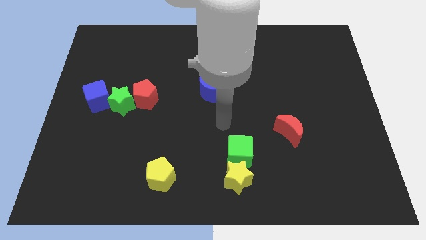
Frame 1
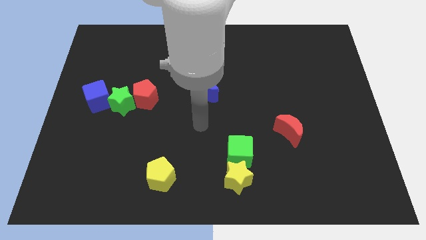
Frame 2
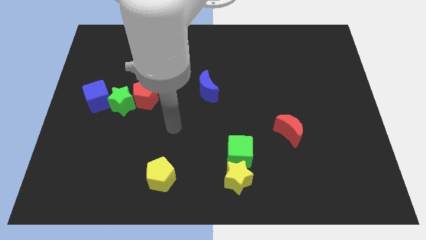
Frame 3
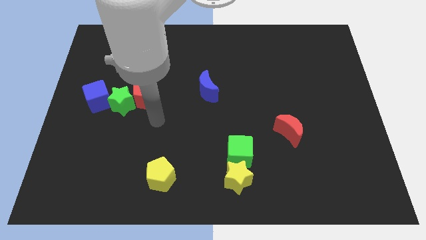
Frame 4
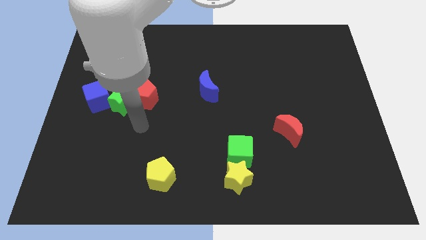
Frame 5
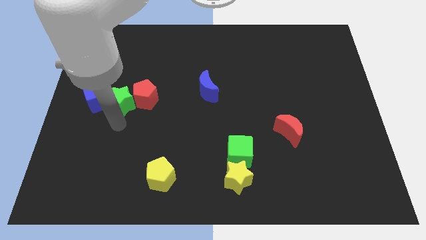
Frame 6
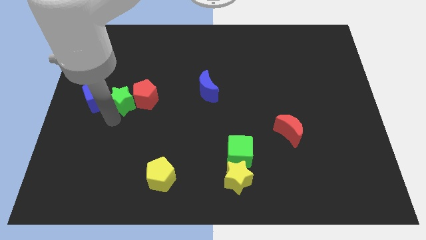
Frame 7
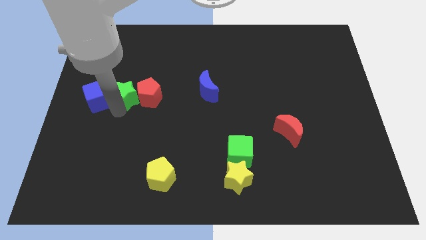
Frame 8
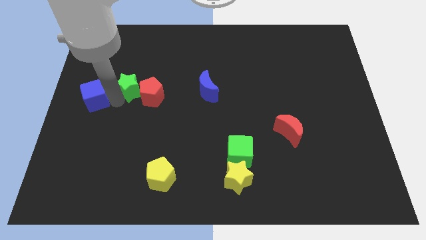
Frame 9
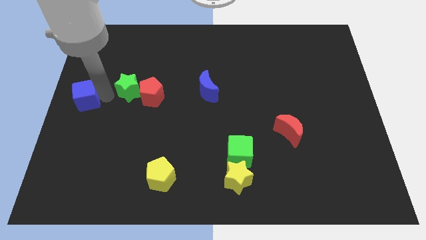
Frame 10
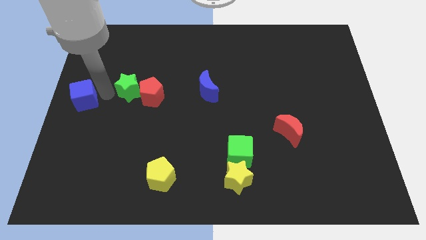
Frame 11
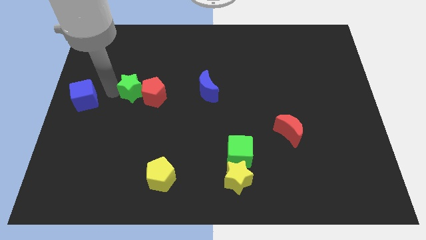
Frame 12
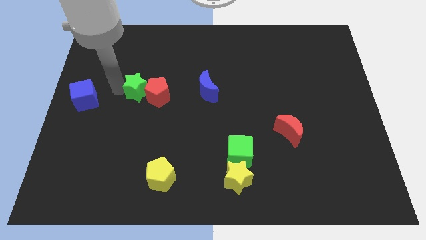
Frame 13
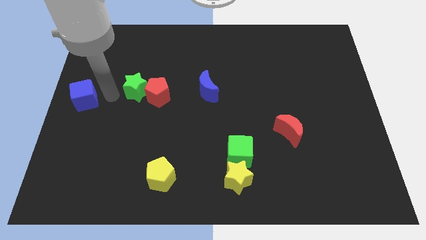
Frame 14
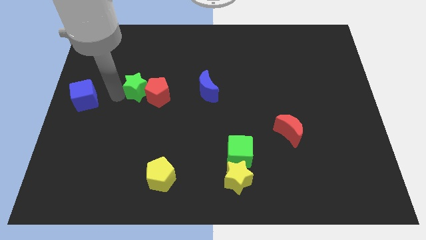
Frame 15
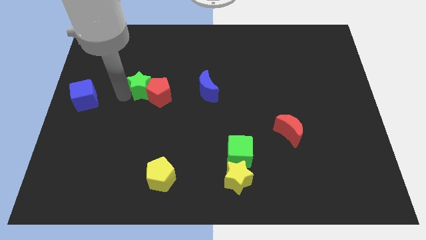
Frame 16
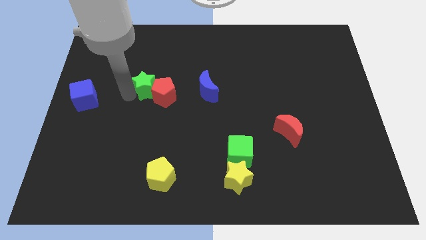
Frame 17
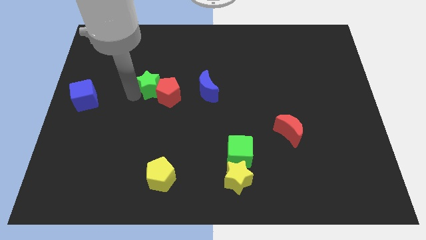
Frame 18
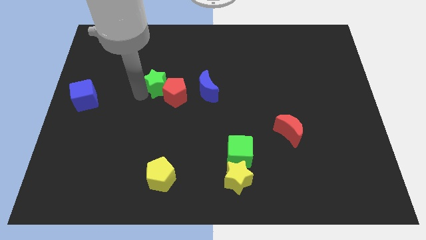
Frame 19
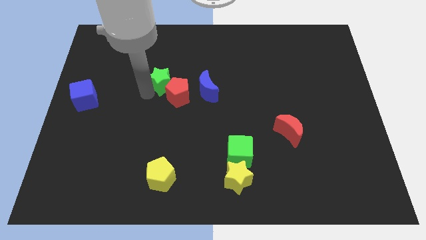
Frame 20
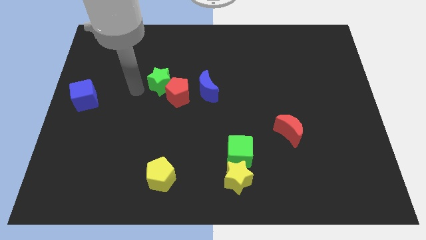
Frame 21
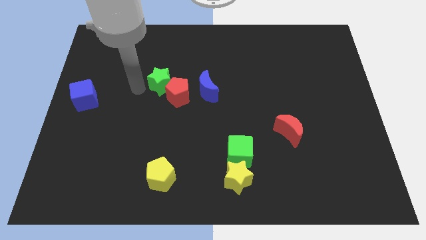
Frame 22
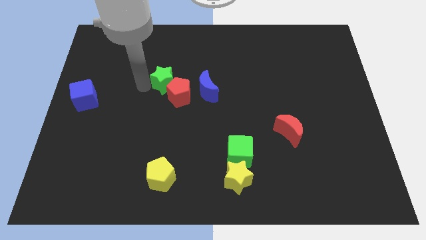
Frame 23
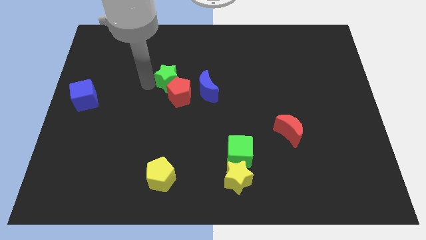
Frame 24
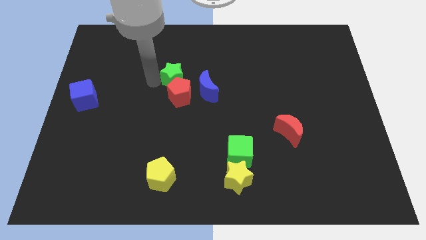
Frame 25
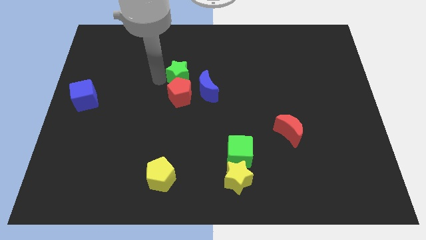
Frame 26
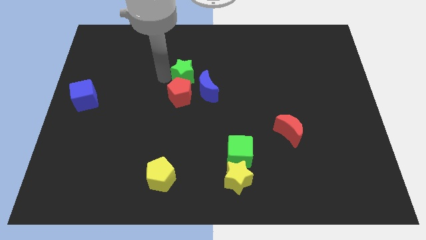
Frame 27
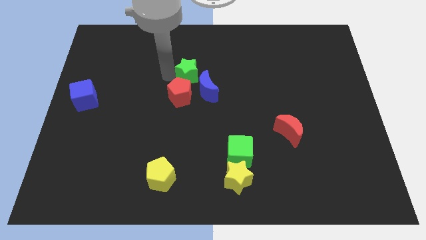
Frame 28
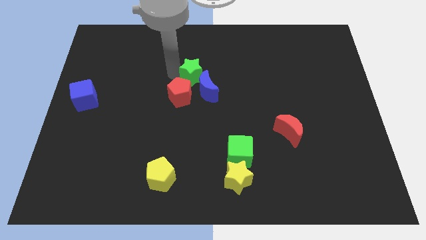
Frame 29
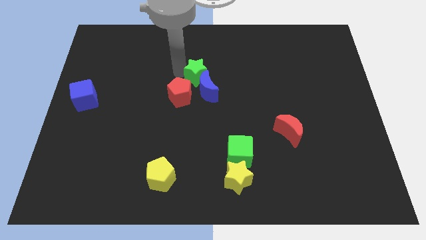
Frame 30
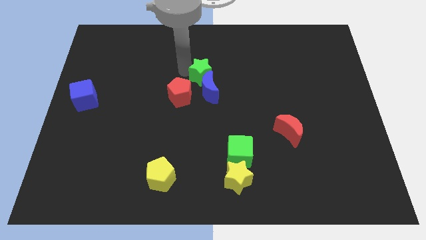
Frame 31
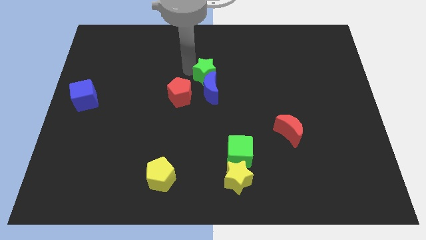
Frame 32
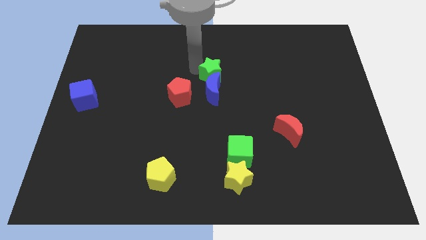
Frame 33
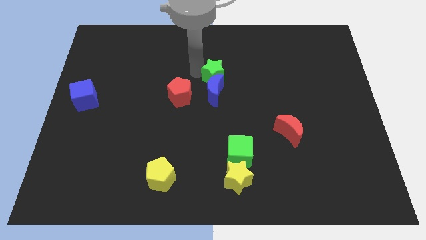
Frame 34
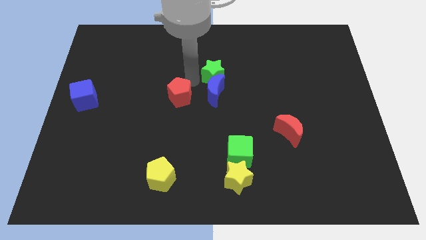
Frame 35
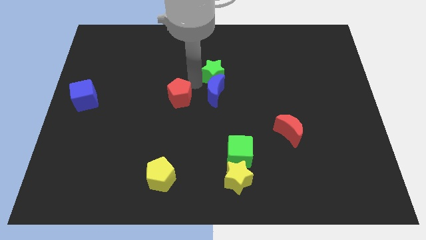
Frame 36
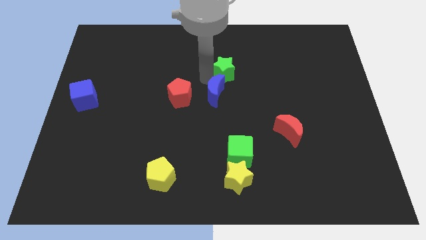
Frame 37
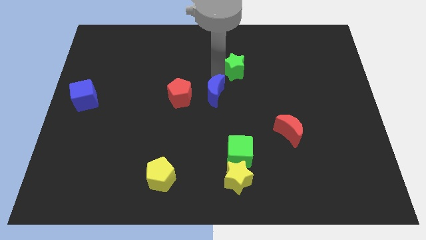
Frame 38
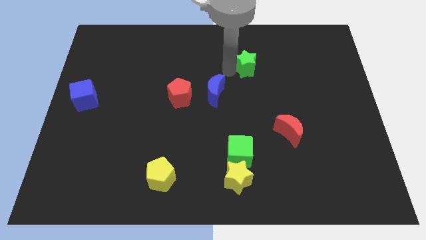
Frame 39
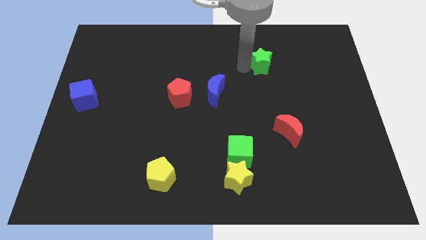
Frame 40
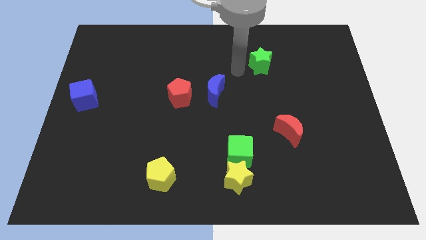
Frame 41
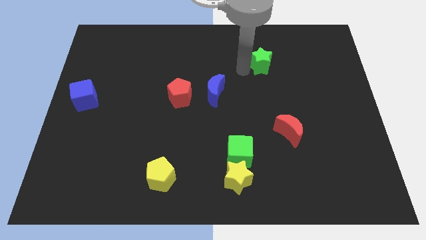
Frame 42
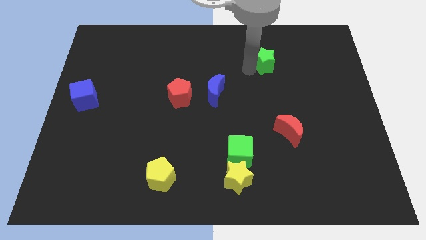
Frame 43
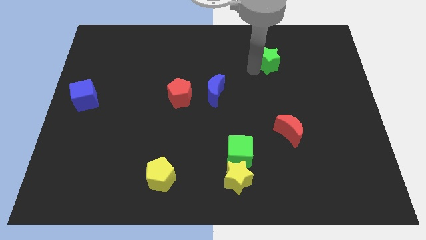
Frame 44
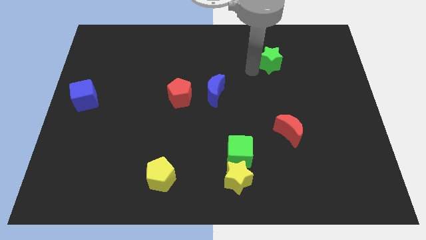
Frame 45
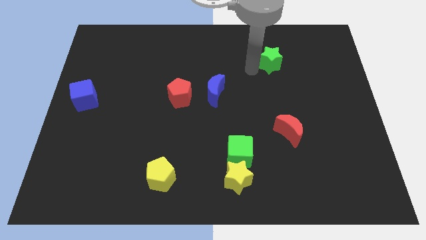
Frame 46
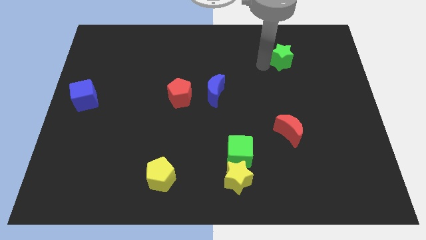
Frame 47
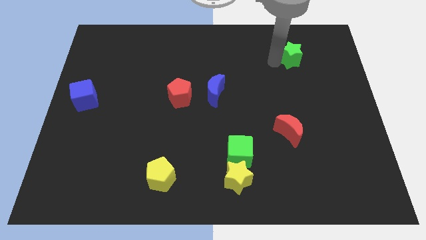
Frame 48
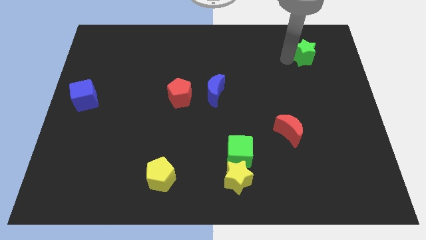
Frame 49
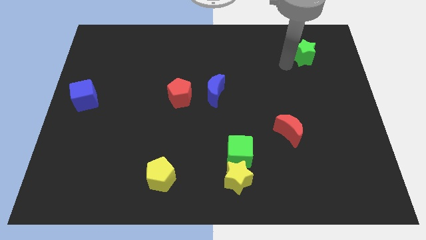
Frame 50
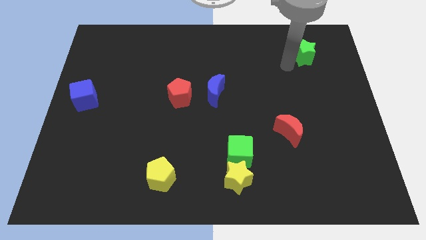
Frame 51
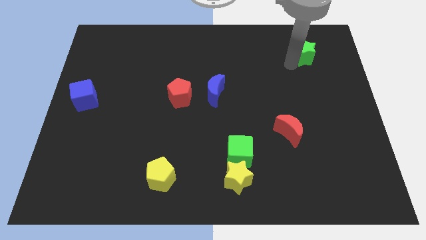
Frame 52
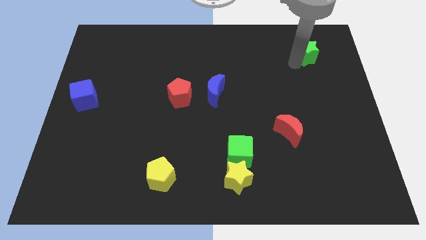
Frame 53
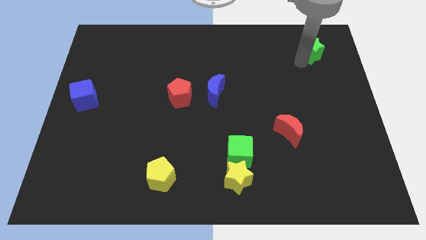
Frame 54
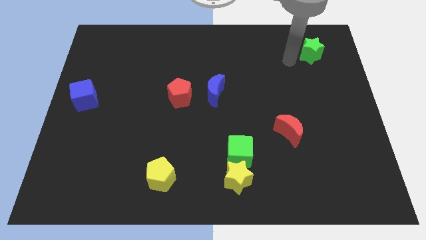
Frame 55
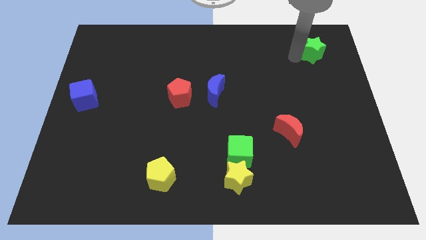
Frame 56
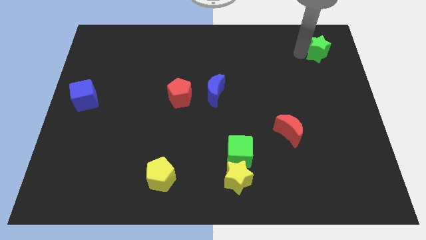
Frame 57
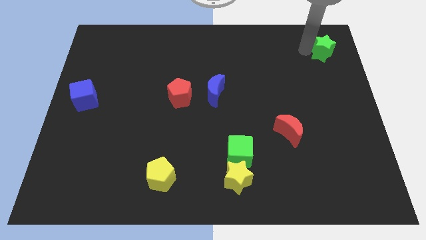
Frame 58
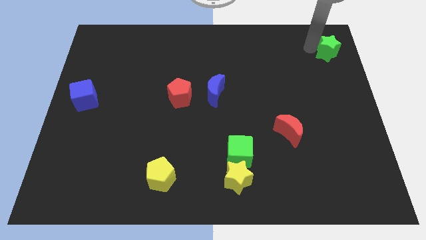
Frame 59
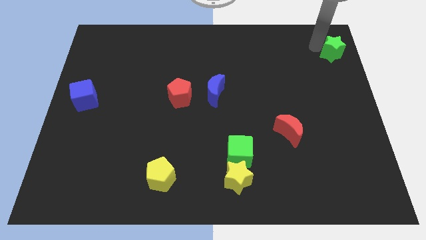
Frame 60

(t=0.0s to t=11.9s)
push the green star to the upper right corner

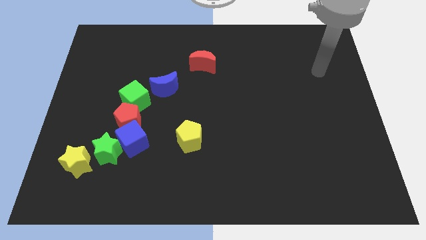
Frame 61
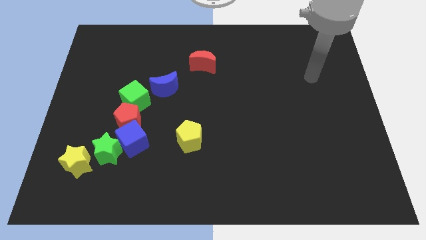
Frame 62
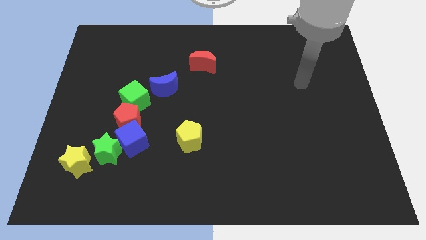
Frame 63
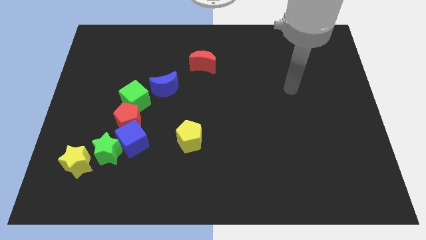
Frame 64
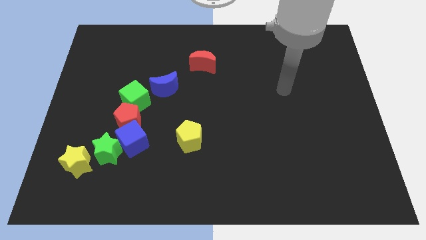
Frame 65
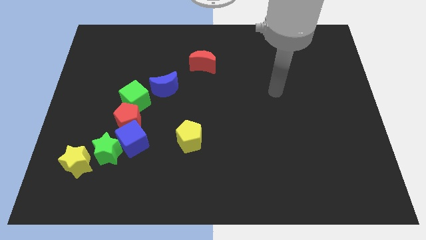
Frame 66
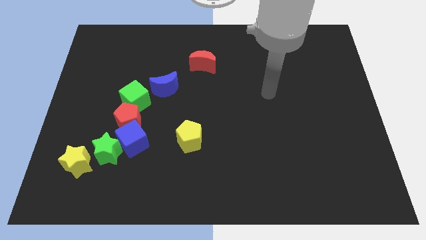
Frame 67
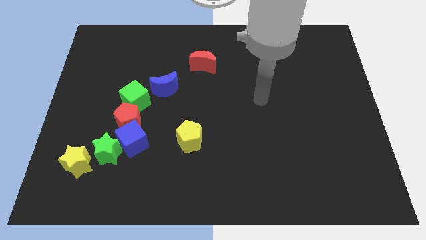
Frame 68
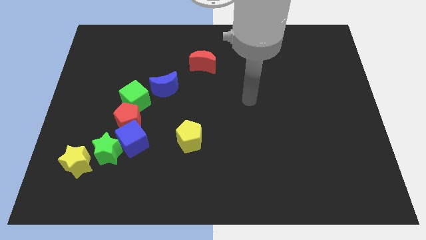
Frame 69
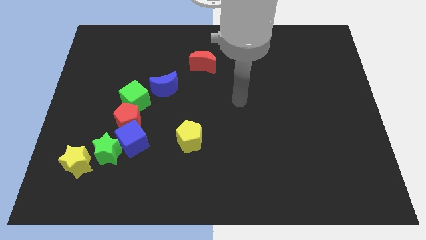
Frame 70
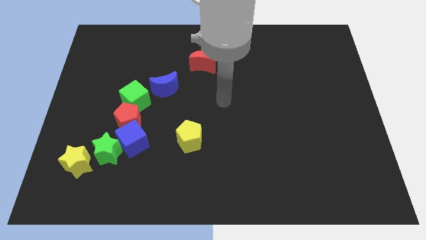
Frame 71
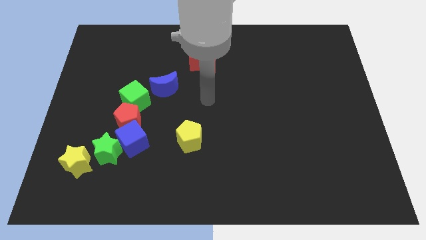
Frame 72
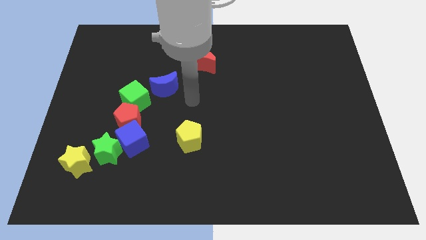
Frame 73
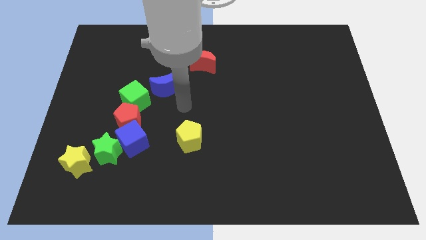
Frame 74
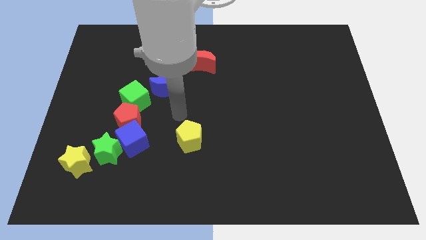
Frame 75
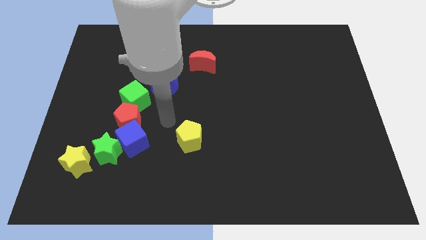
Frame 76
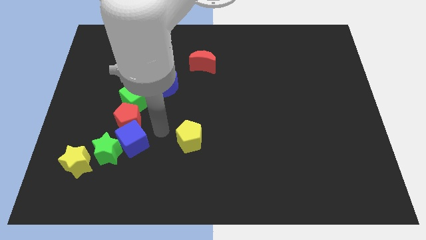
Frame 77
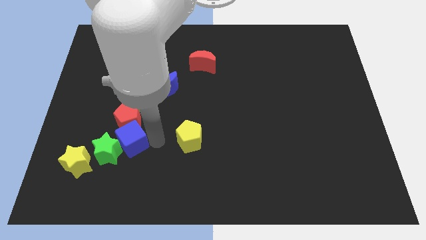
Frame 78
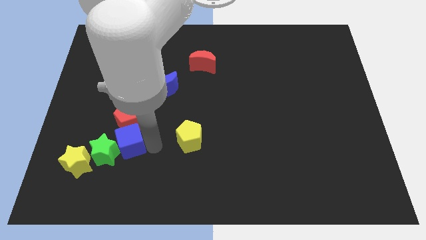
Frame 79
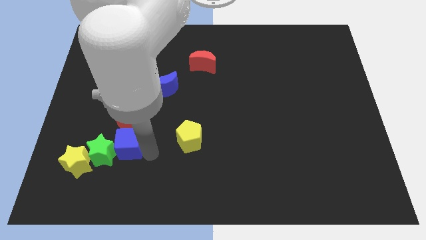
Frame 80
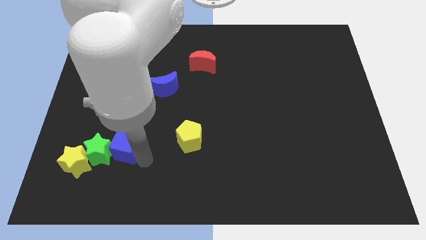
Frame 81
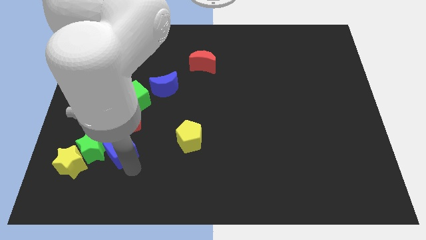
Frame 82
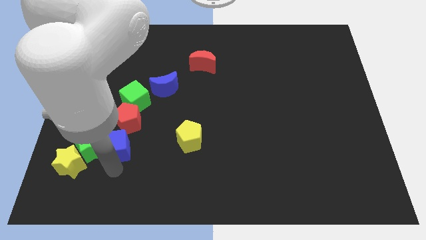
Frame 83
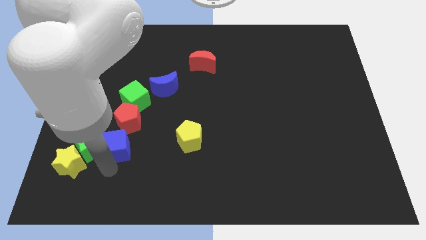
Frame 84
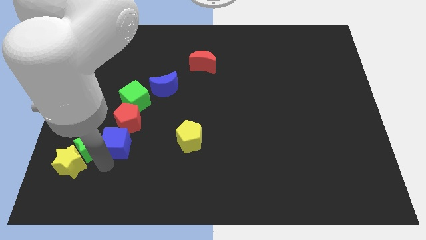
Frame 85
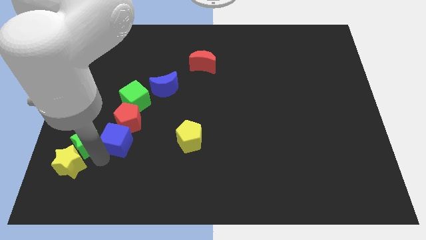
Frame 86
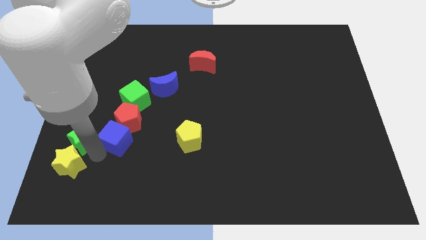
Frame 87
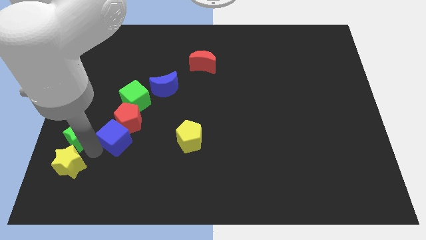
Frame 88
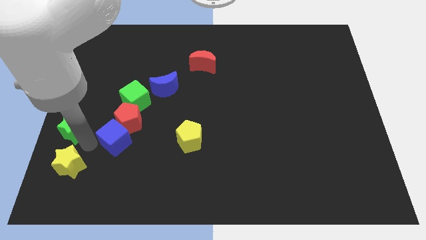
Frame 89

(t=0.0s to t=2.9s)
slide the green star to the left side
